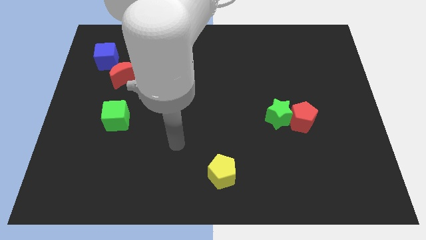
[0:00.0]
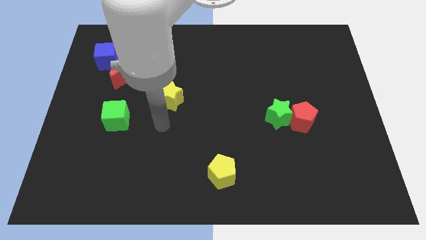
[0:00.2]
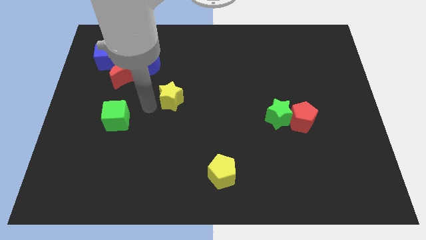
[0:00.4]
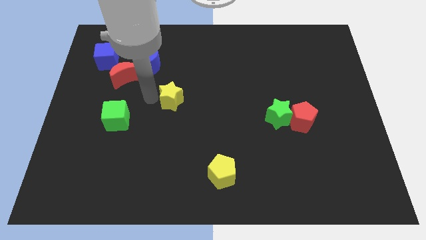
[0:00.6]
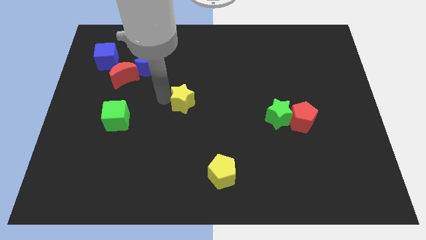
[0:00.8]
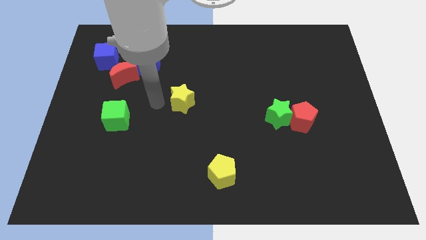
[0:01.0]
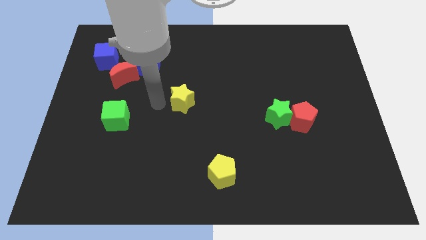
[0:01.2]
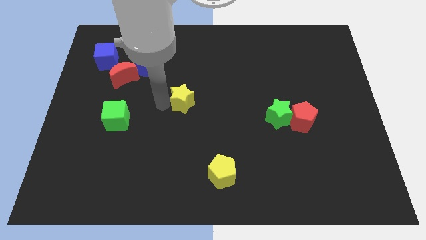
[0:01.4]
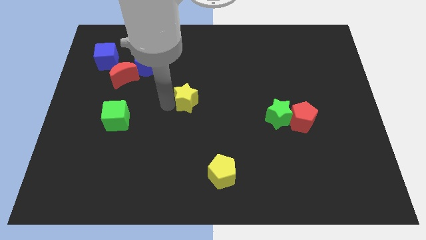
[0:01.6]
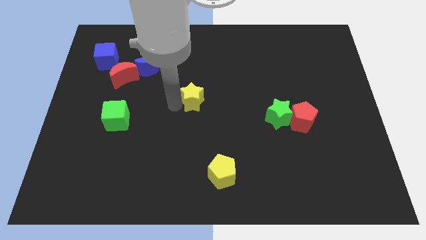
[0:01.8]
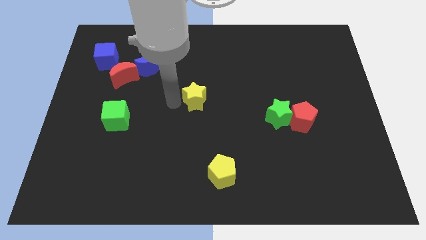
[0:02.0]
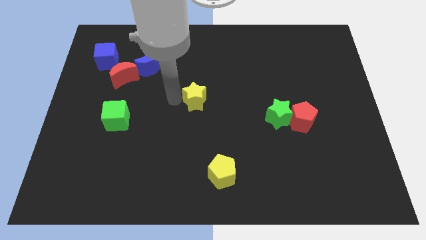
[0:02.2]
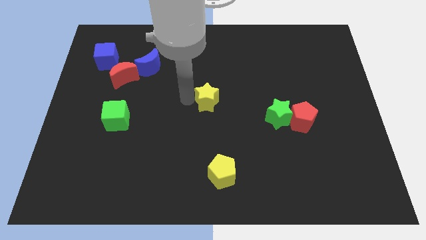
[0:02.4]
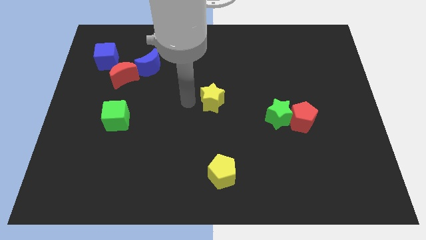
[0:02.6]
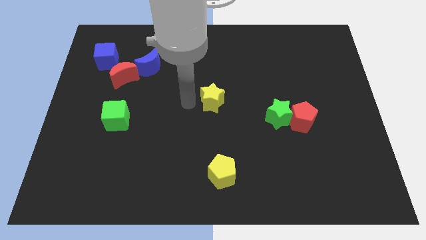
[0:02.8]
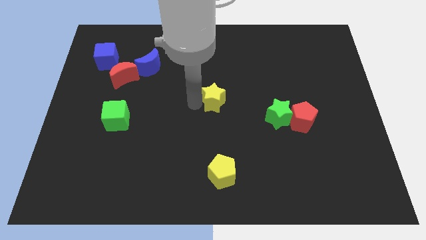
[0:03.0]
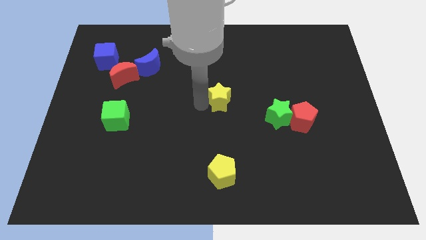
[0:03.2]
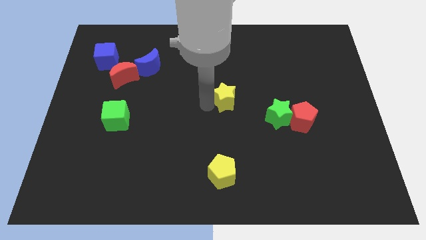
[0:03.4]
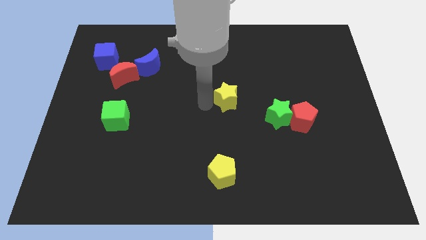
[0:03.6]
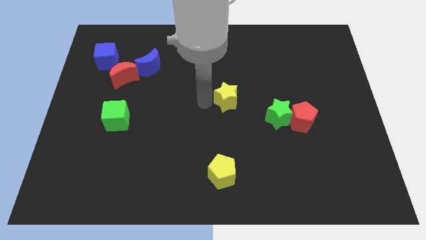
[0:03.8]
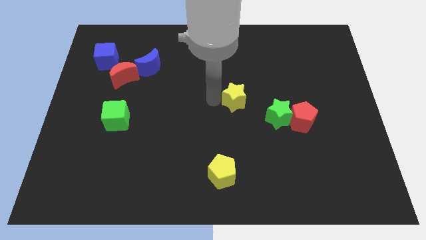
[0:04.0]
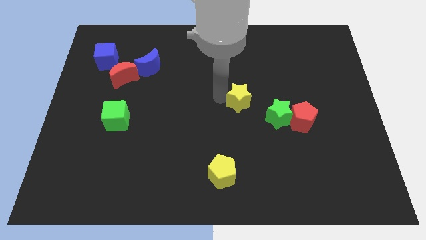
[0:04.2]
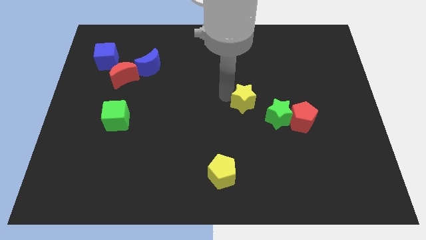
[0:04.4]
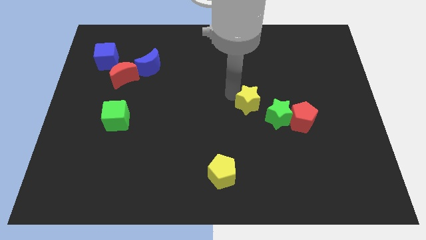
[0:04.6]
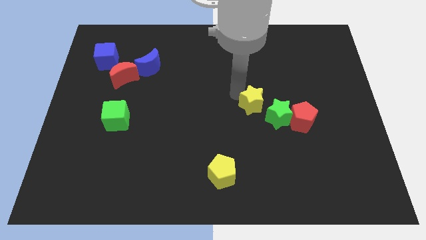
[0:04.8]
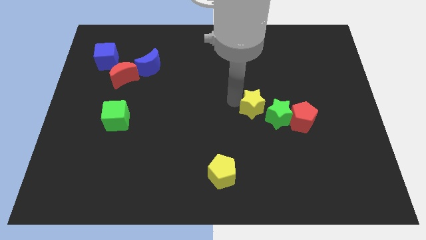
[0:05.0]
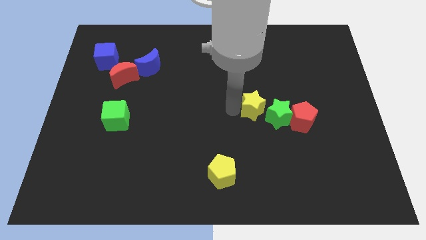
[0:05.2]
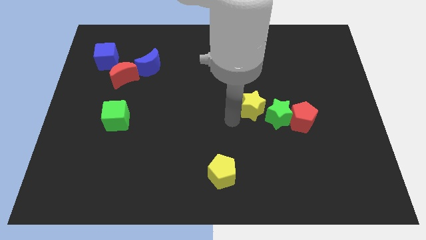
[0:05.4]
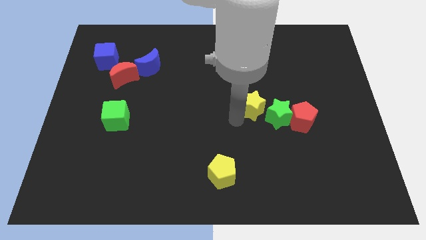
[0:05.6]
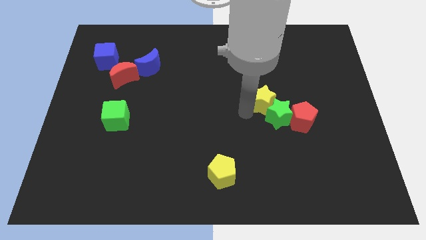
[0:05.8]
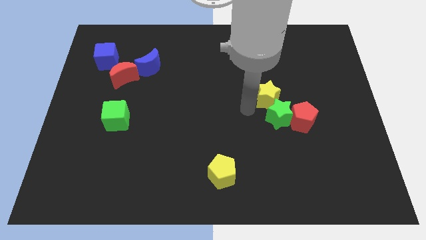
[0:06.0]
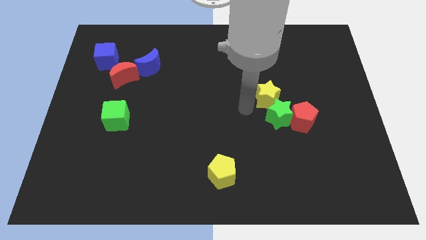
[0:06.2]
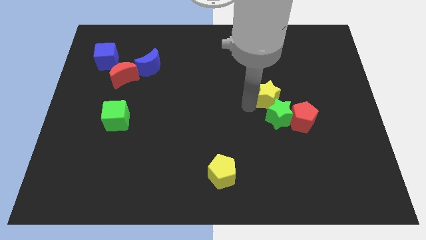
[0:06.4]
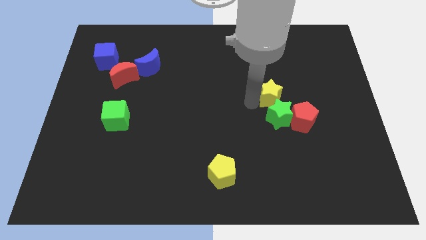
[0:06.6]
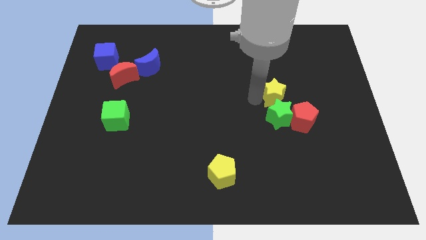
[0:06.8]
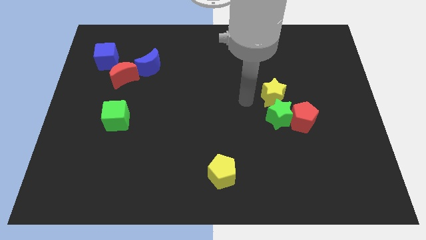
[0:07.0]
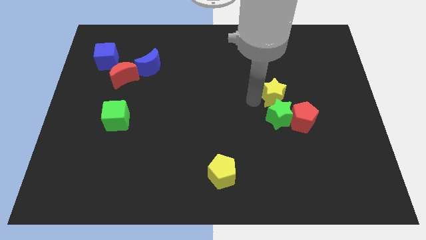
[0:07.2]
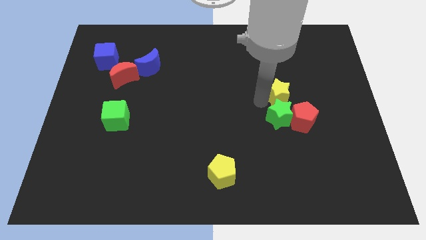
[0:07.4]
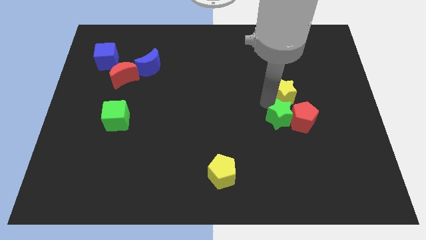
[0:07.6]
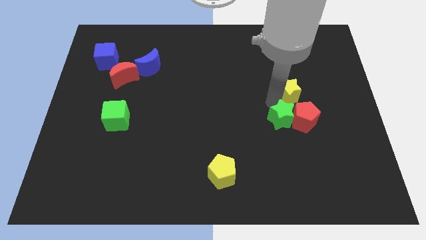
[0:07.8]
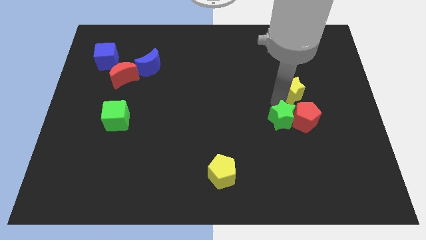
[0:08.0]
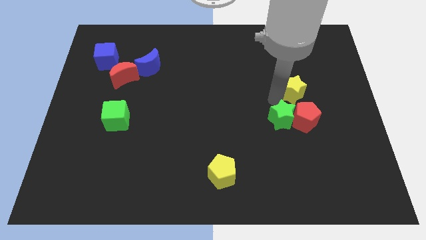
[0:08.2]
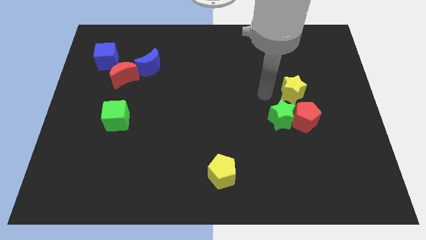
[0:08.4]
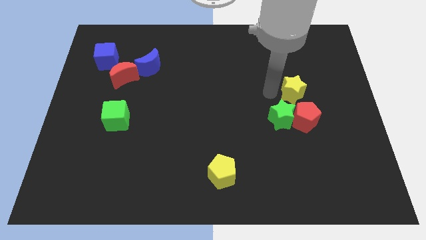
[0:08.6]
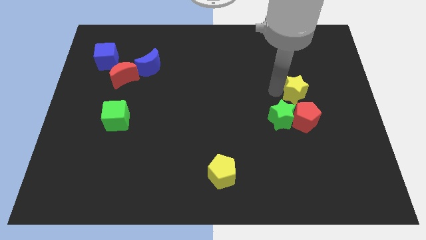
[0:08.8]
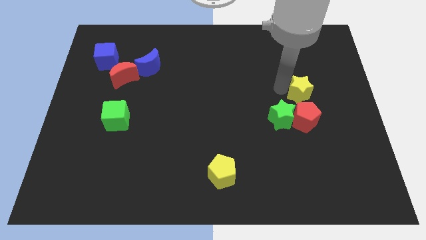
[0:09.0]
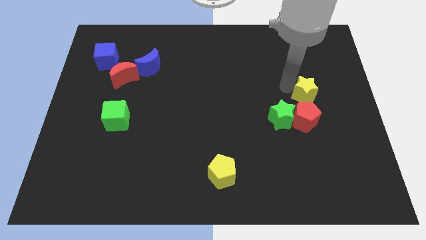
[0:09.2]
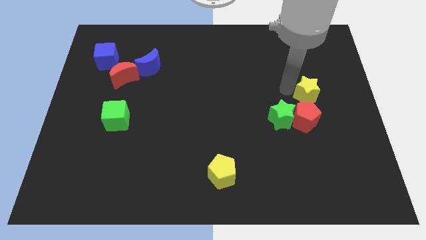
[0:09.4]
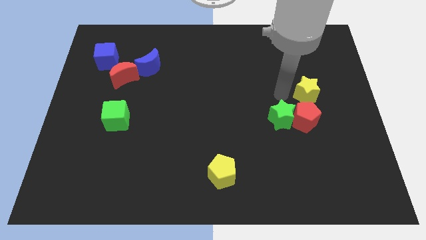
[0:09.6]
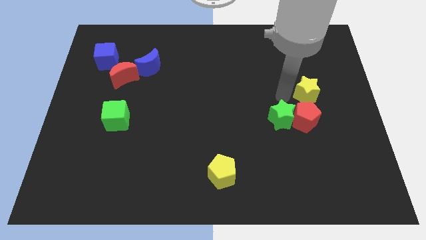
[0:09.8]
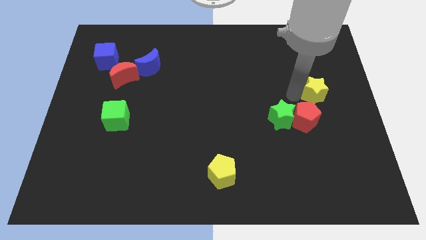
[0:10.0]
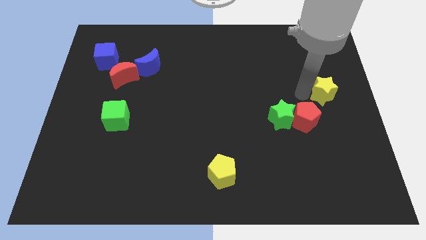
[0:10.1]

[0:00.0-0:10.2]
slide the yellow star to the right side
